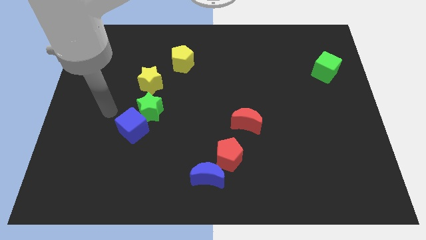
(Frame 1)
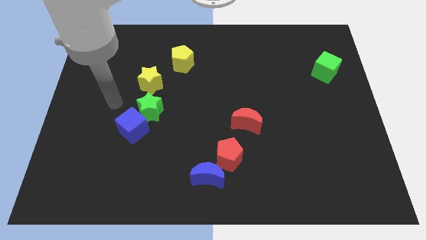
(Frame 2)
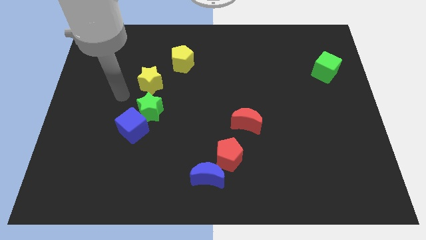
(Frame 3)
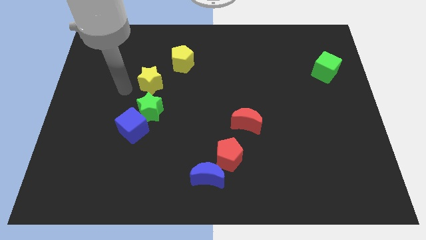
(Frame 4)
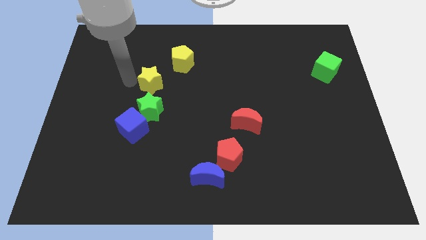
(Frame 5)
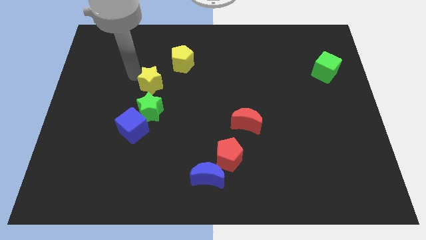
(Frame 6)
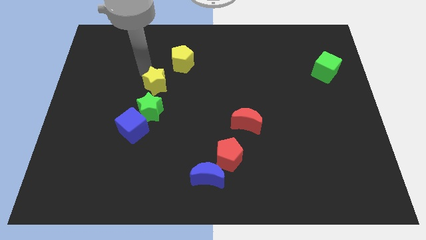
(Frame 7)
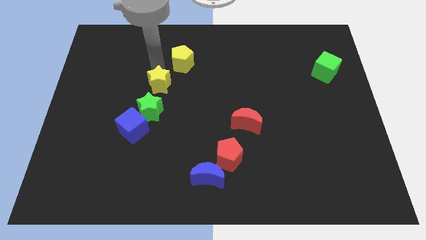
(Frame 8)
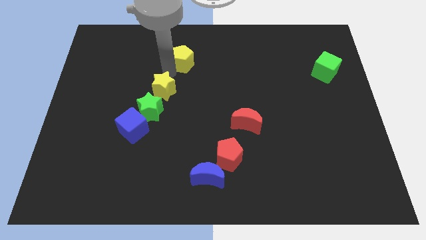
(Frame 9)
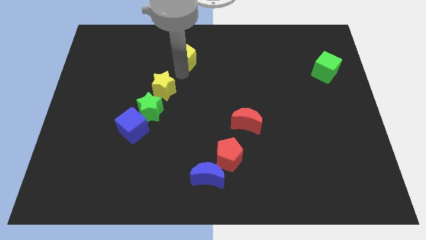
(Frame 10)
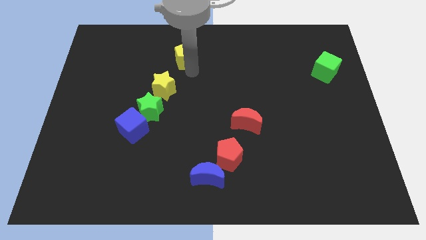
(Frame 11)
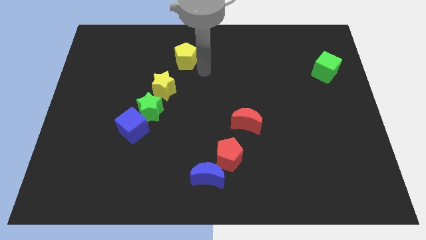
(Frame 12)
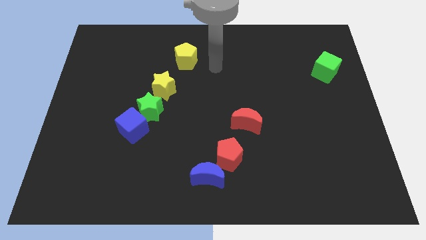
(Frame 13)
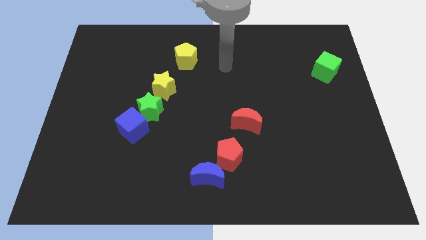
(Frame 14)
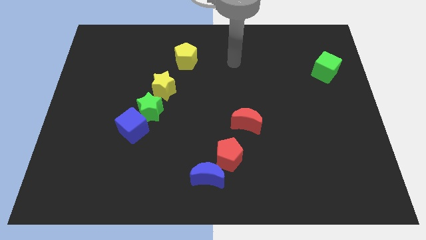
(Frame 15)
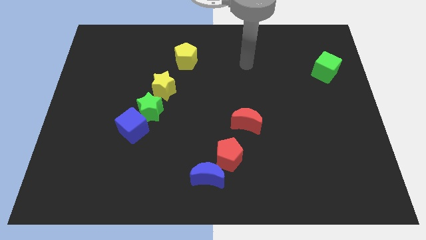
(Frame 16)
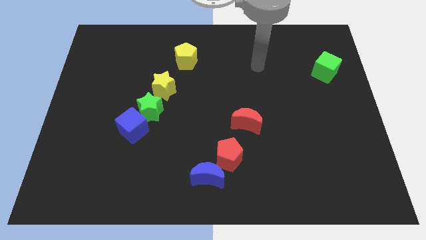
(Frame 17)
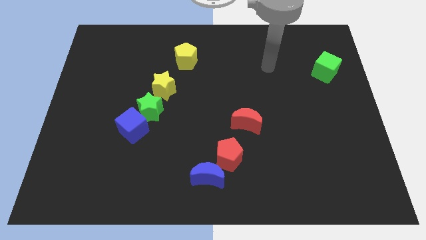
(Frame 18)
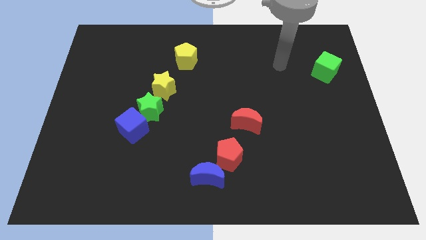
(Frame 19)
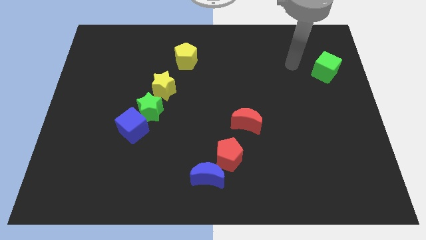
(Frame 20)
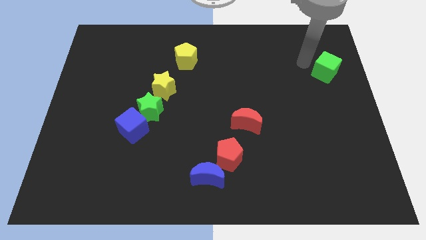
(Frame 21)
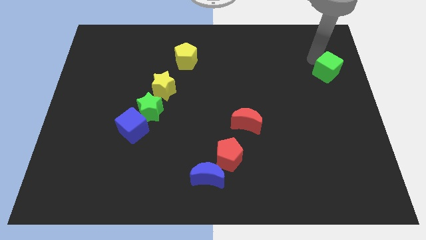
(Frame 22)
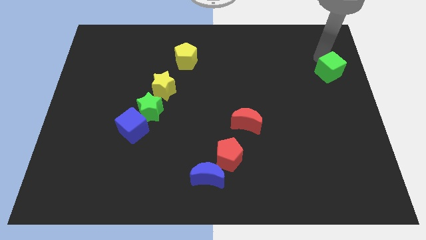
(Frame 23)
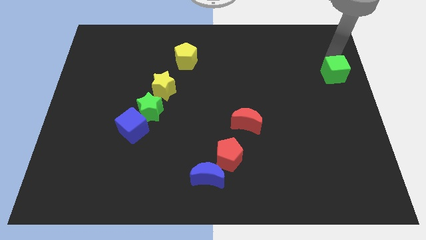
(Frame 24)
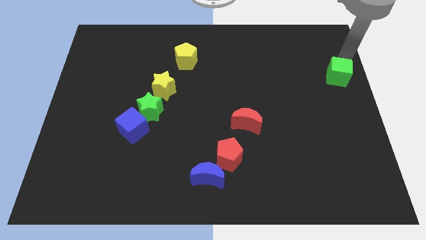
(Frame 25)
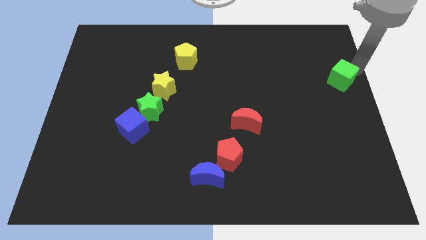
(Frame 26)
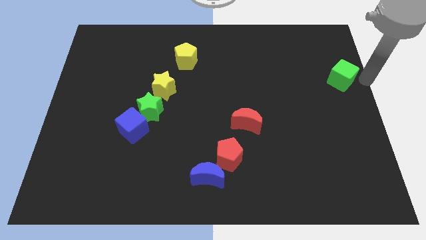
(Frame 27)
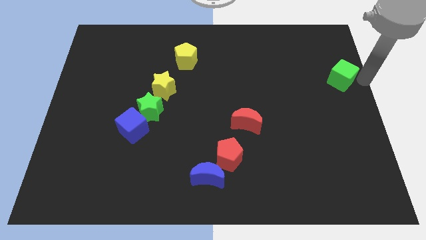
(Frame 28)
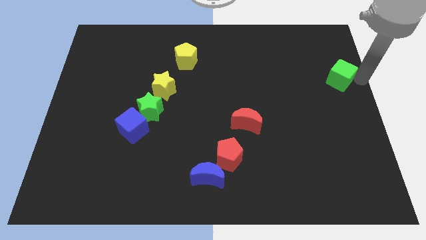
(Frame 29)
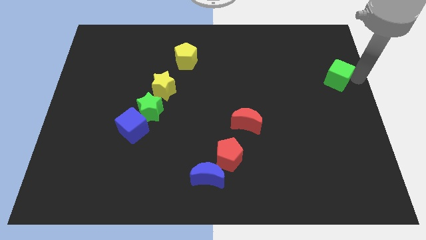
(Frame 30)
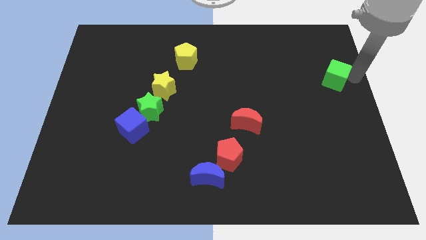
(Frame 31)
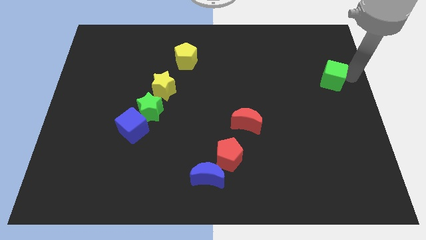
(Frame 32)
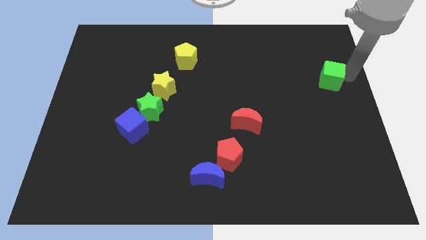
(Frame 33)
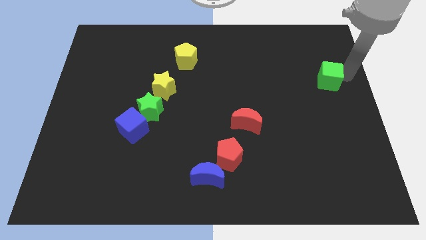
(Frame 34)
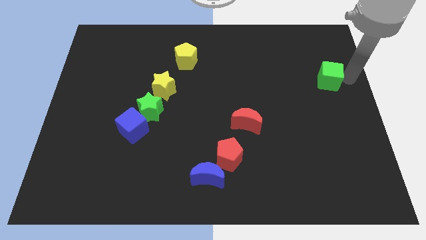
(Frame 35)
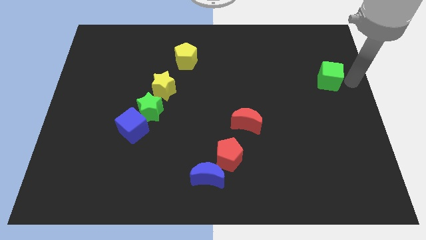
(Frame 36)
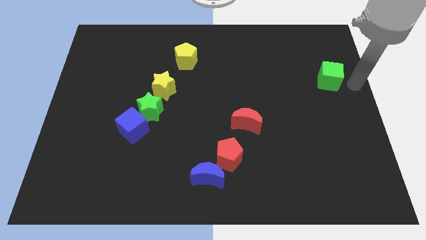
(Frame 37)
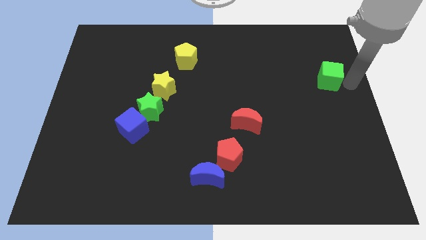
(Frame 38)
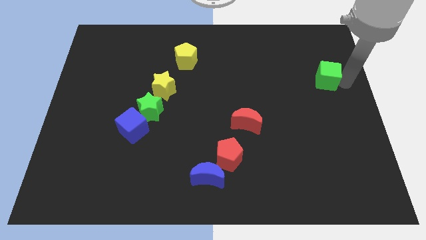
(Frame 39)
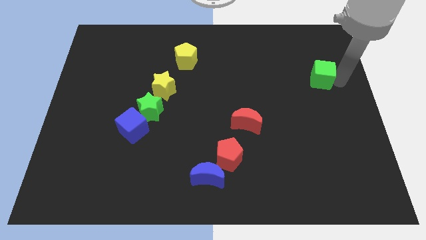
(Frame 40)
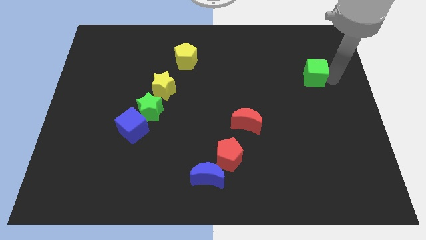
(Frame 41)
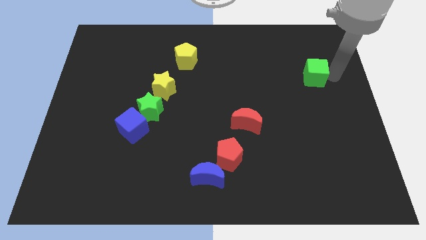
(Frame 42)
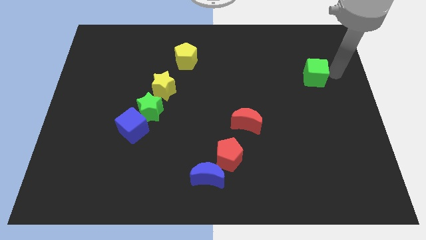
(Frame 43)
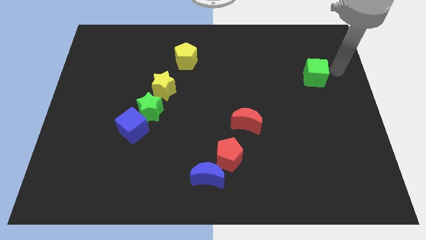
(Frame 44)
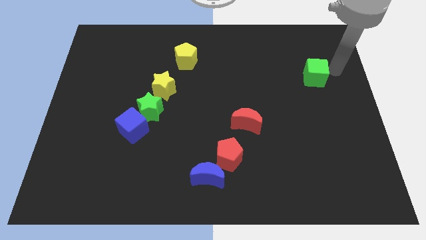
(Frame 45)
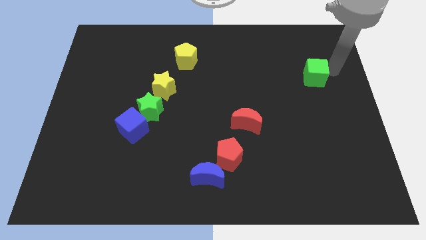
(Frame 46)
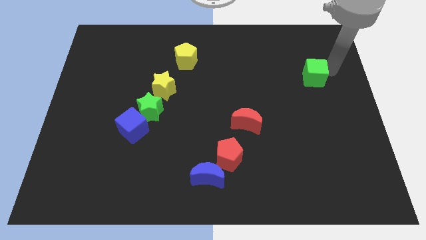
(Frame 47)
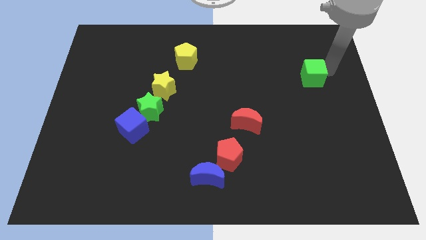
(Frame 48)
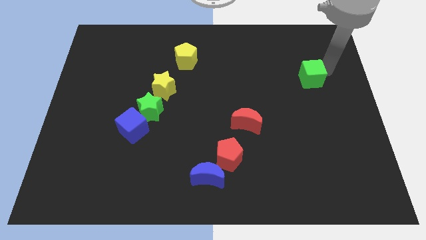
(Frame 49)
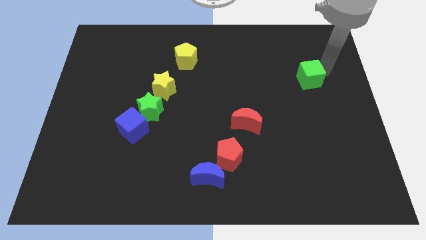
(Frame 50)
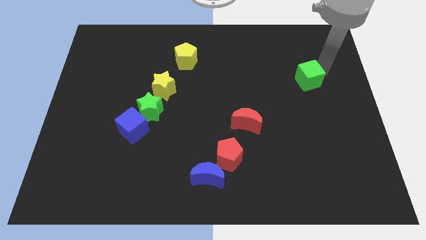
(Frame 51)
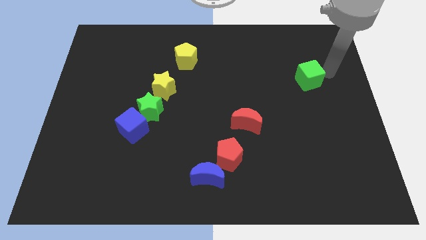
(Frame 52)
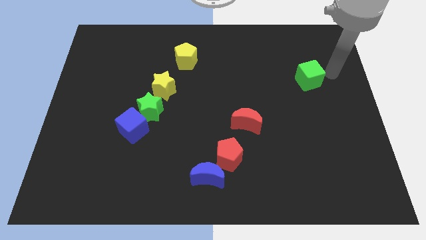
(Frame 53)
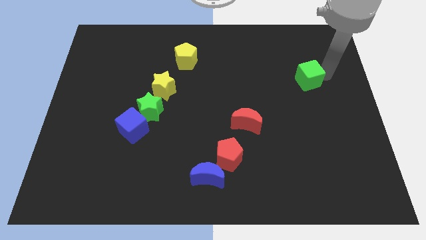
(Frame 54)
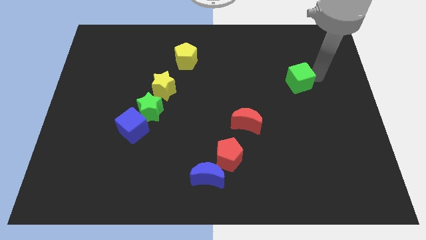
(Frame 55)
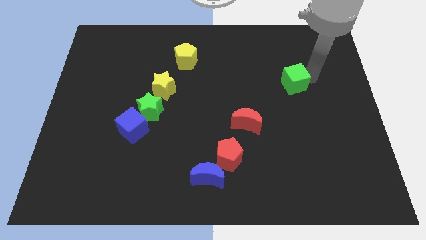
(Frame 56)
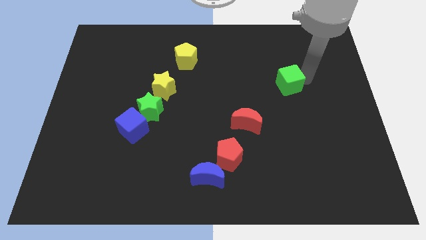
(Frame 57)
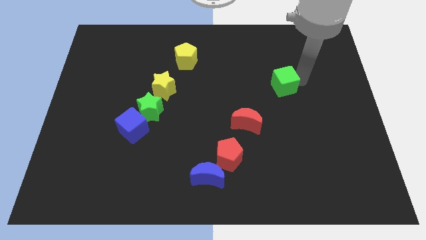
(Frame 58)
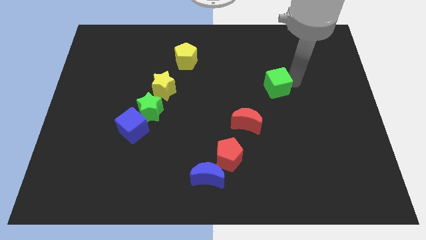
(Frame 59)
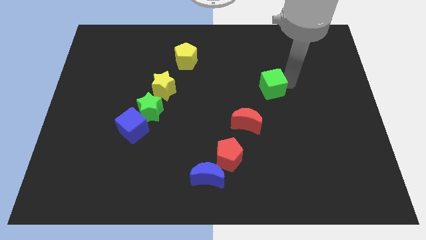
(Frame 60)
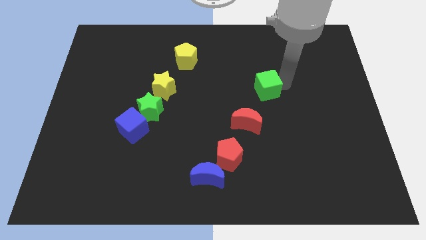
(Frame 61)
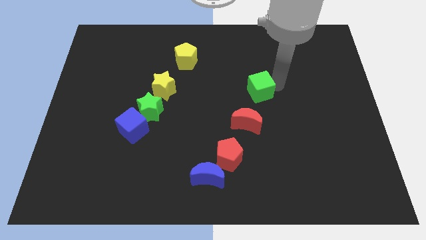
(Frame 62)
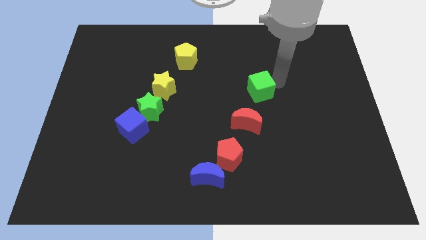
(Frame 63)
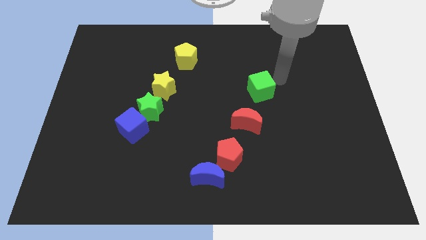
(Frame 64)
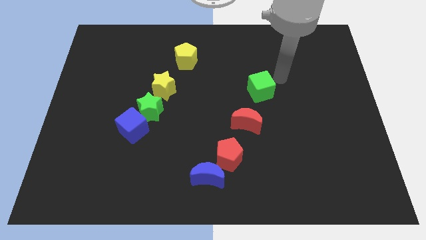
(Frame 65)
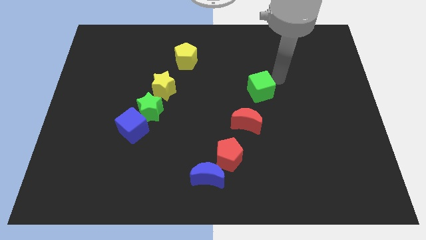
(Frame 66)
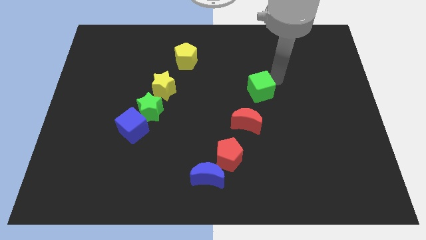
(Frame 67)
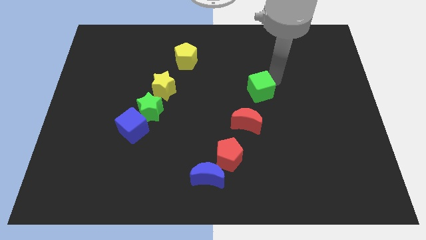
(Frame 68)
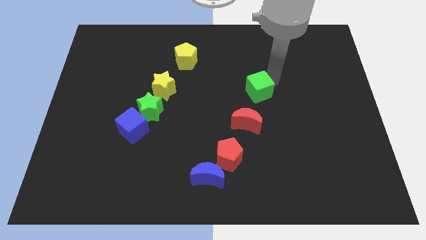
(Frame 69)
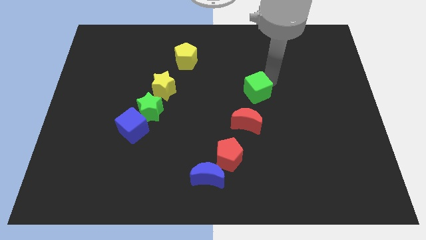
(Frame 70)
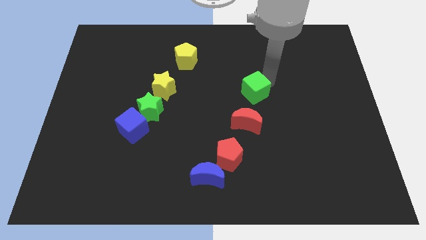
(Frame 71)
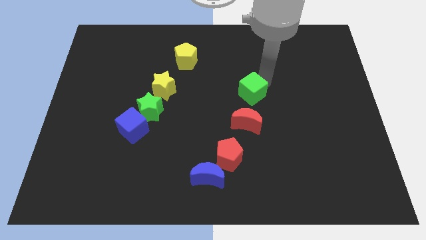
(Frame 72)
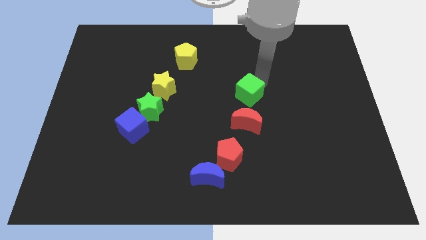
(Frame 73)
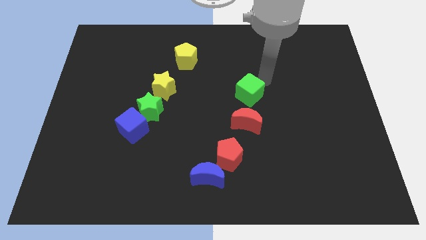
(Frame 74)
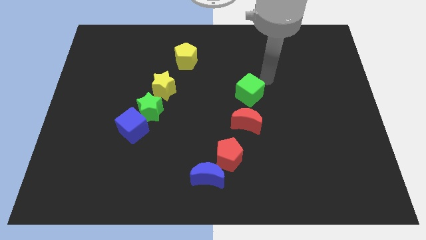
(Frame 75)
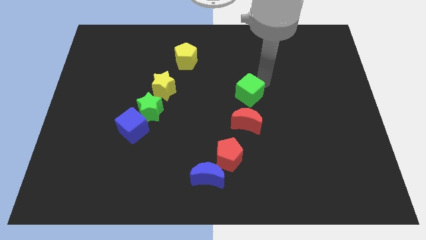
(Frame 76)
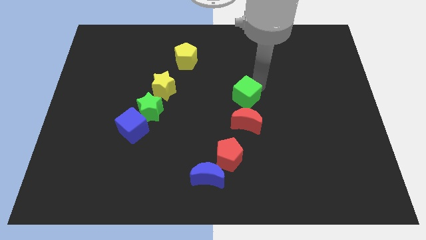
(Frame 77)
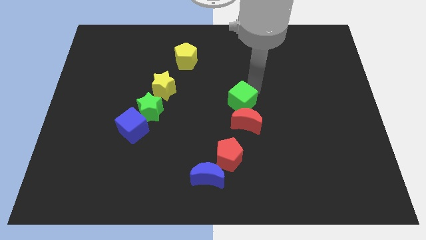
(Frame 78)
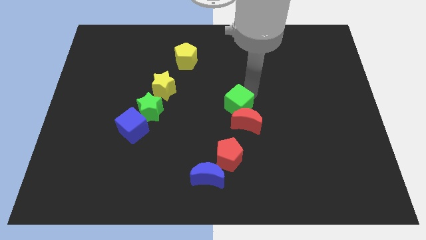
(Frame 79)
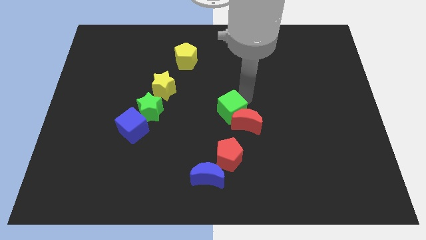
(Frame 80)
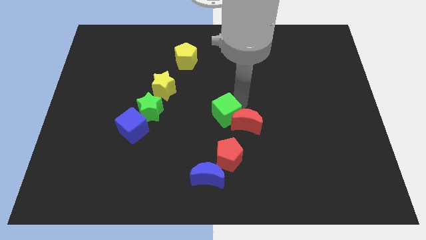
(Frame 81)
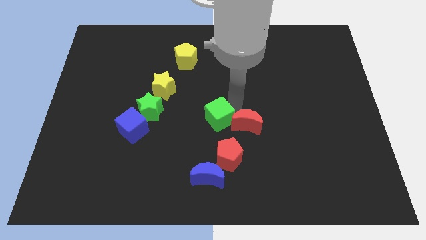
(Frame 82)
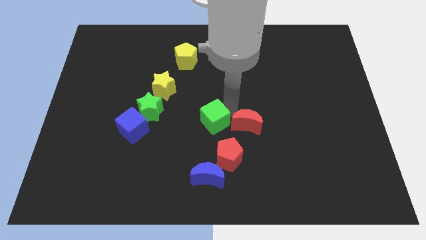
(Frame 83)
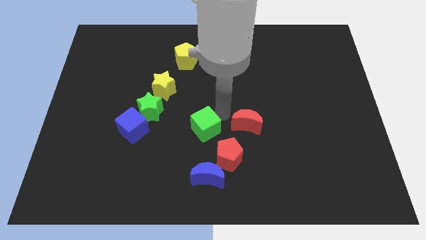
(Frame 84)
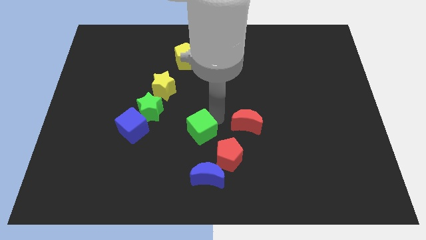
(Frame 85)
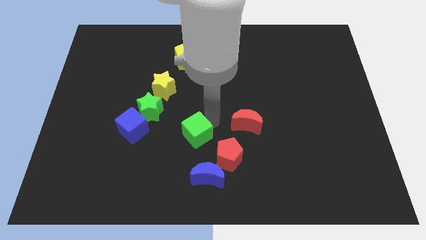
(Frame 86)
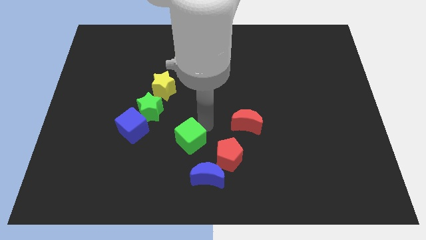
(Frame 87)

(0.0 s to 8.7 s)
put the green cube just left of the red pentagon
